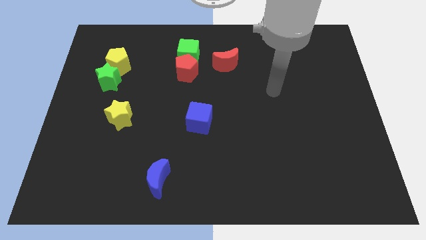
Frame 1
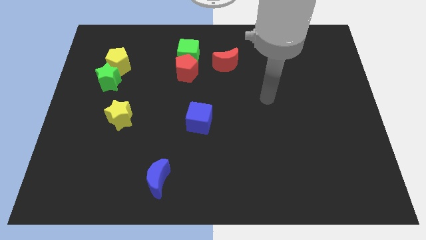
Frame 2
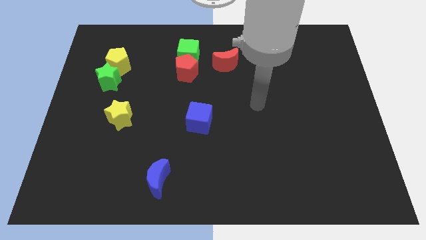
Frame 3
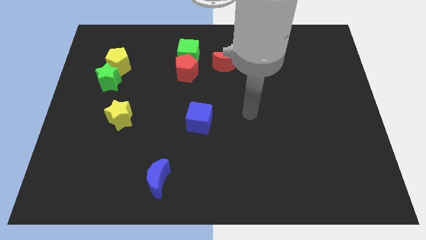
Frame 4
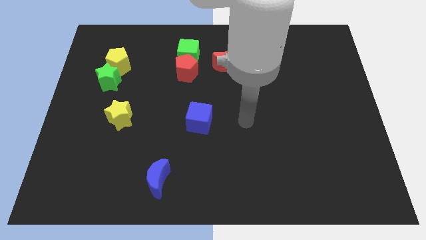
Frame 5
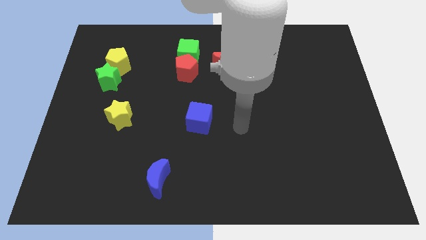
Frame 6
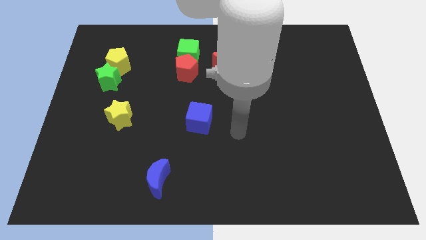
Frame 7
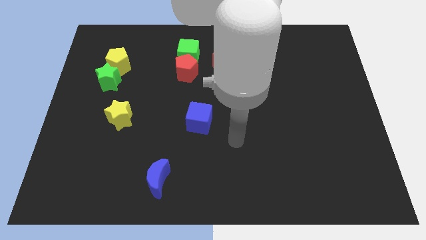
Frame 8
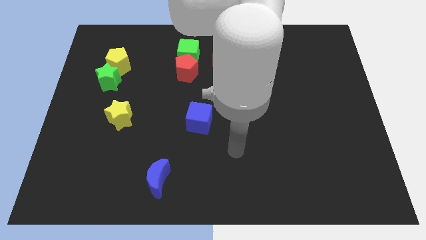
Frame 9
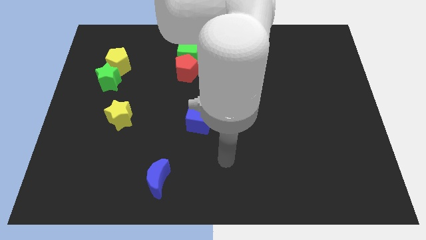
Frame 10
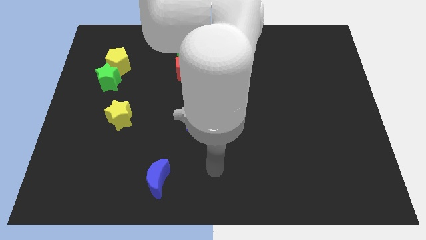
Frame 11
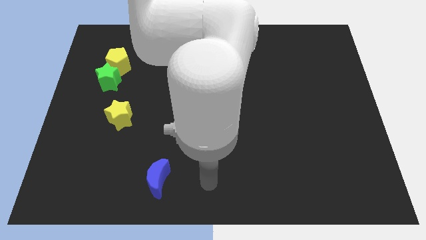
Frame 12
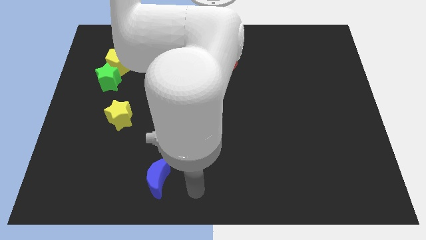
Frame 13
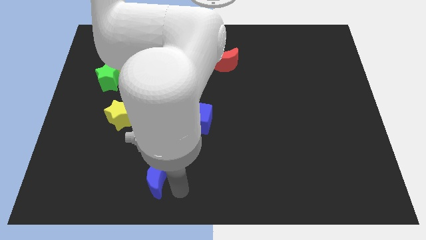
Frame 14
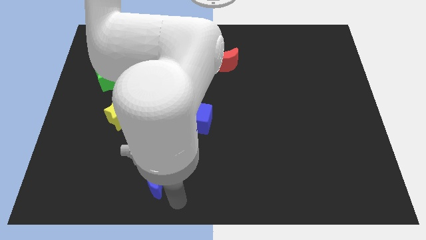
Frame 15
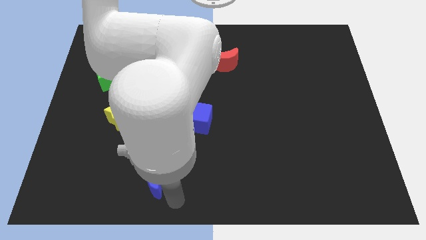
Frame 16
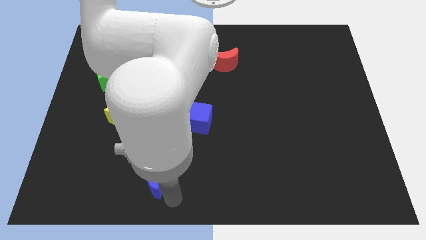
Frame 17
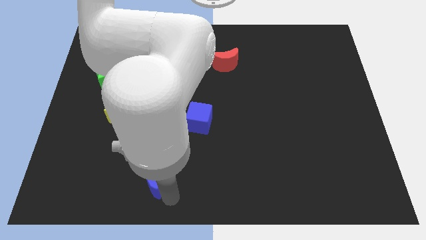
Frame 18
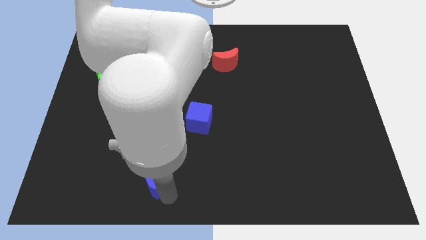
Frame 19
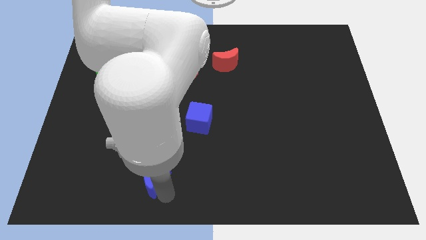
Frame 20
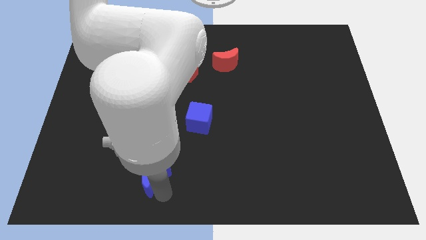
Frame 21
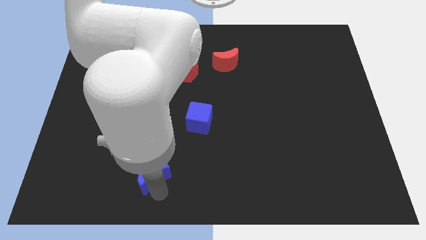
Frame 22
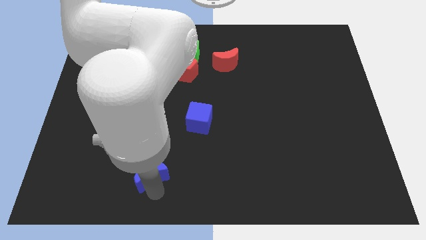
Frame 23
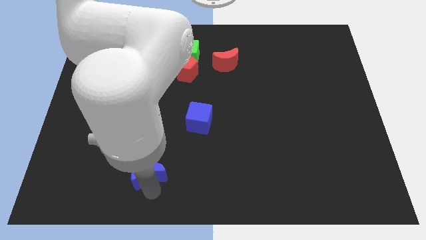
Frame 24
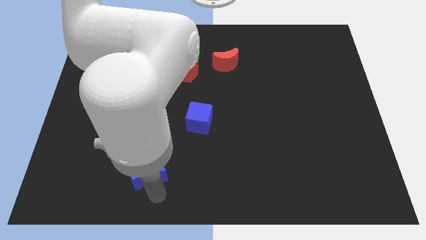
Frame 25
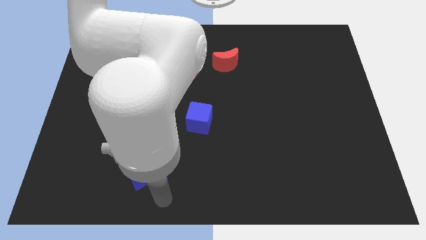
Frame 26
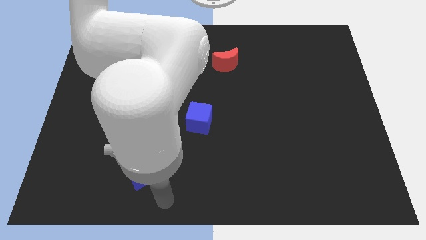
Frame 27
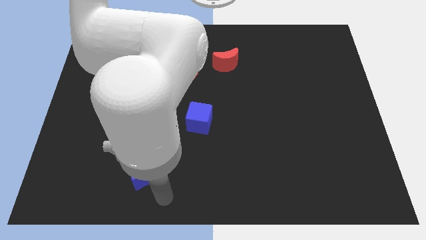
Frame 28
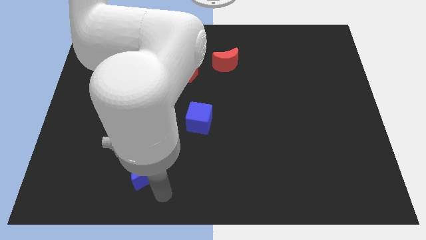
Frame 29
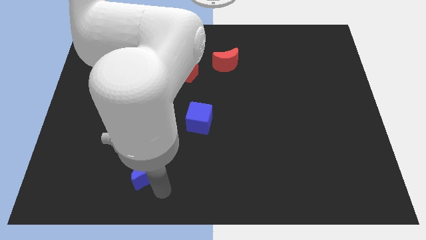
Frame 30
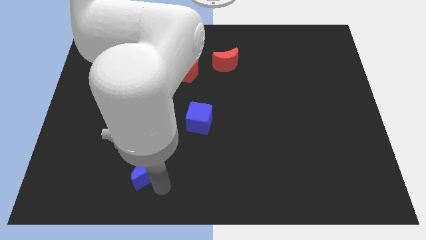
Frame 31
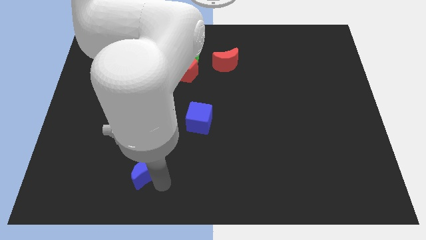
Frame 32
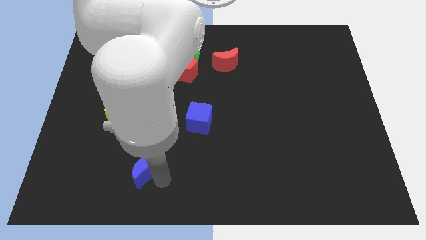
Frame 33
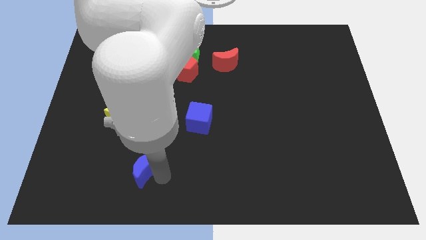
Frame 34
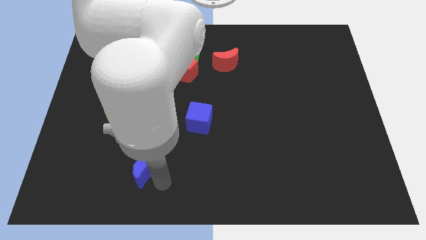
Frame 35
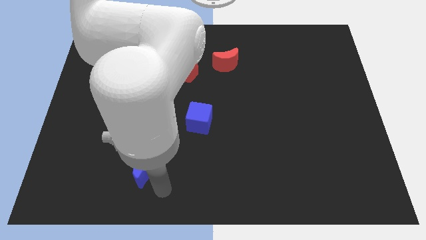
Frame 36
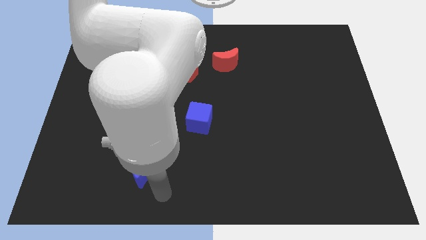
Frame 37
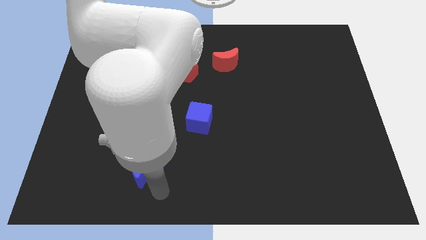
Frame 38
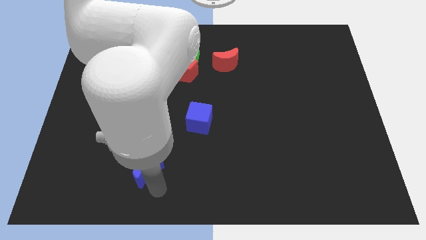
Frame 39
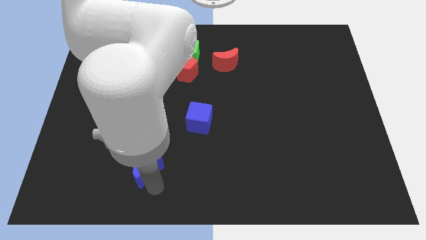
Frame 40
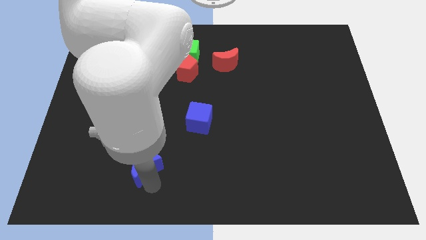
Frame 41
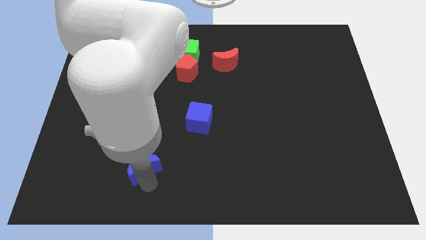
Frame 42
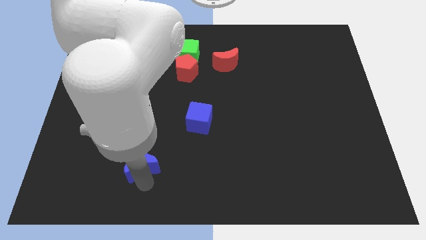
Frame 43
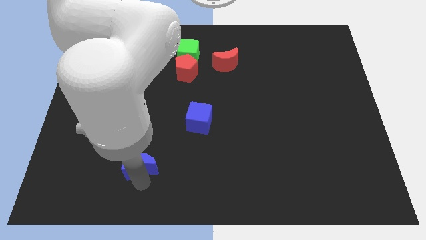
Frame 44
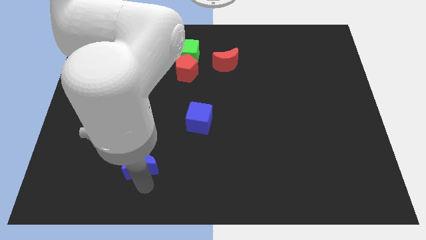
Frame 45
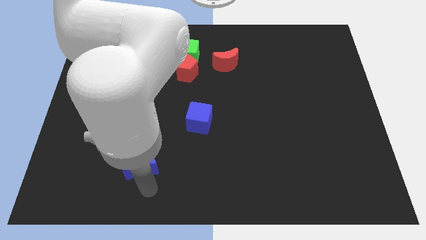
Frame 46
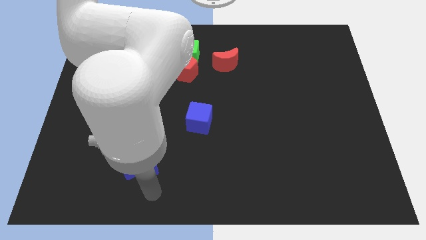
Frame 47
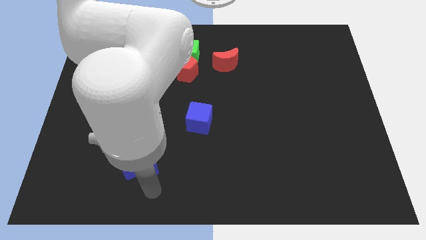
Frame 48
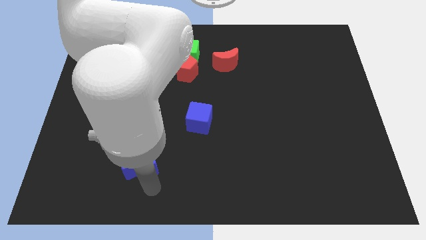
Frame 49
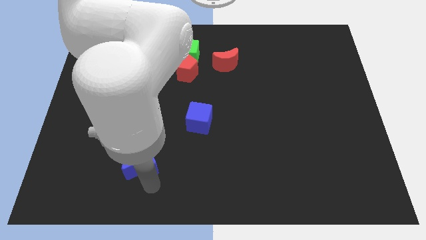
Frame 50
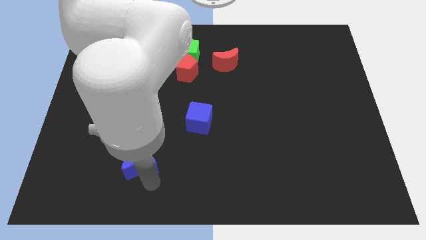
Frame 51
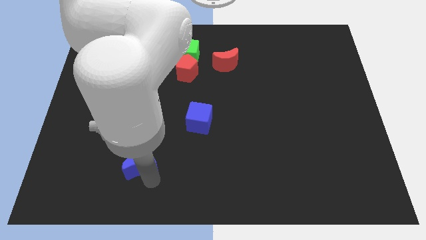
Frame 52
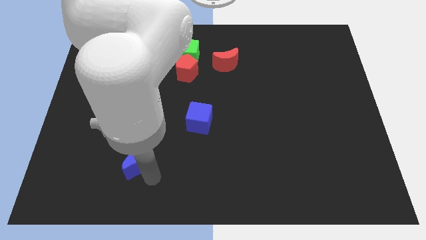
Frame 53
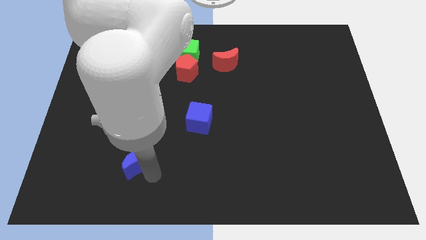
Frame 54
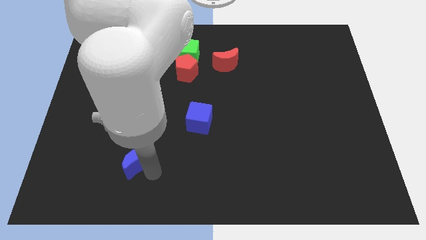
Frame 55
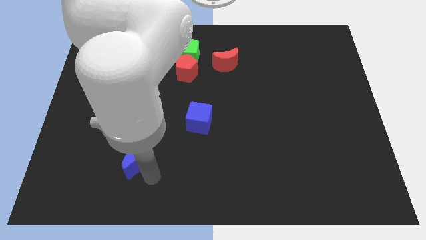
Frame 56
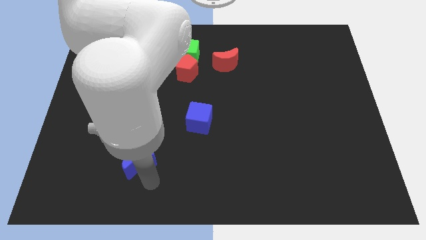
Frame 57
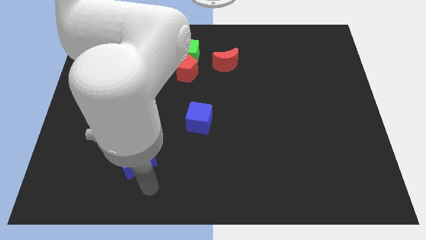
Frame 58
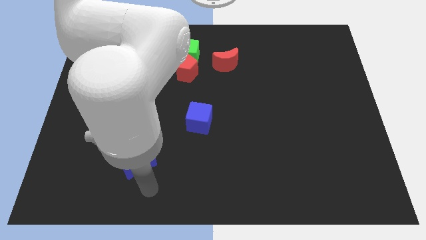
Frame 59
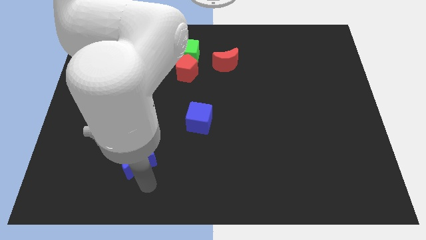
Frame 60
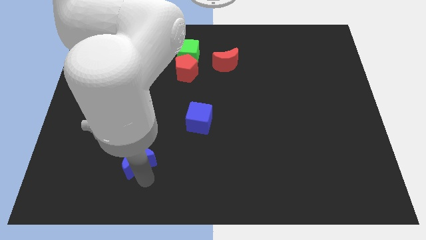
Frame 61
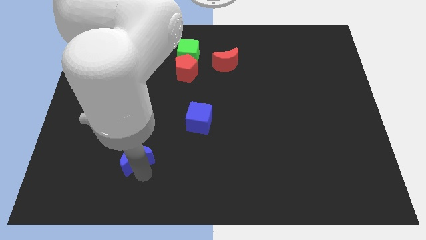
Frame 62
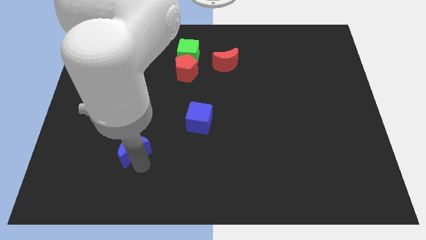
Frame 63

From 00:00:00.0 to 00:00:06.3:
slightly slide the blue moon upwards and left diagonally
